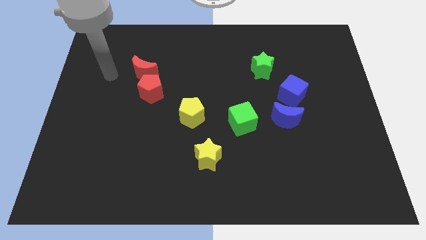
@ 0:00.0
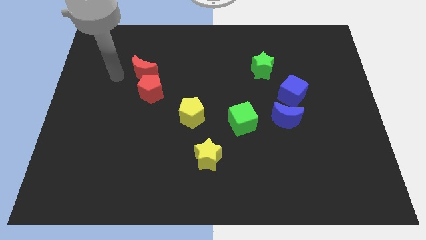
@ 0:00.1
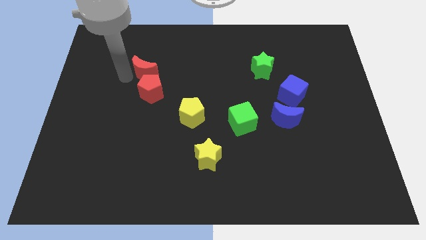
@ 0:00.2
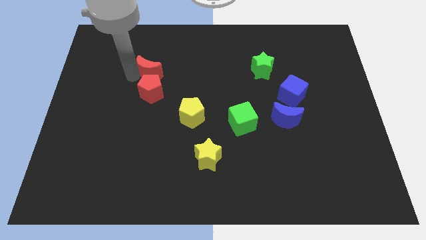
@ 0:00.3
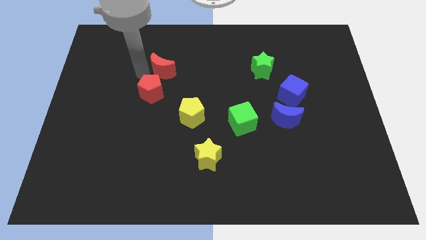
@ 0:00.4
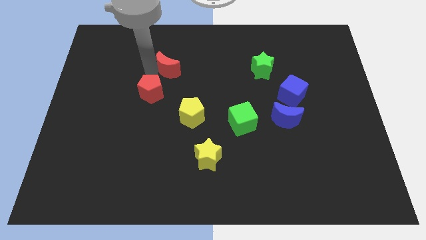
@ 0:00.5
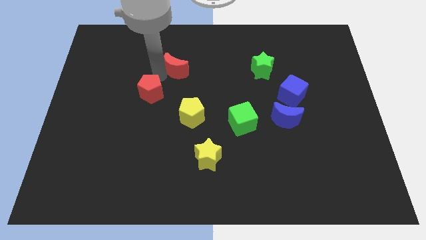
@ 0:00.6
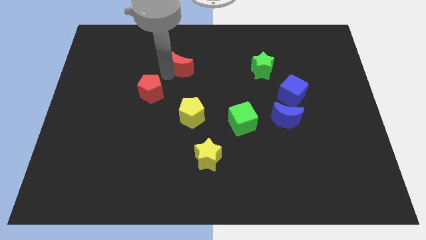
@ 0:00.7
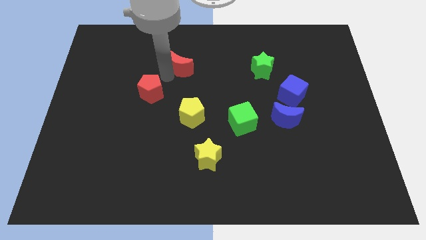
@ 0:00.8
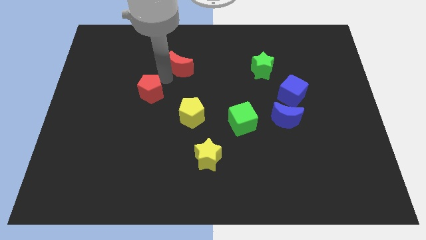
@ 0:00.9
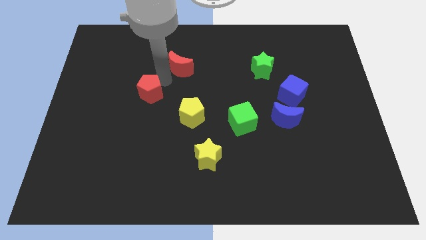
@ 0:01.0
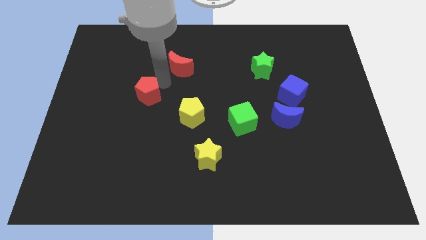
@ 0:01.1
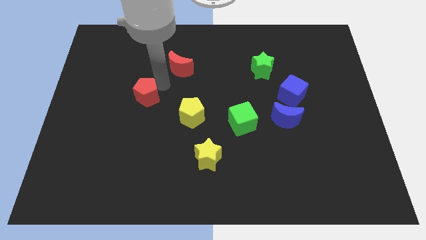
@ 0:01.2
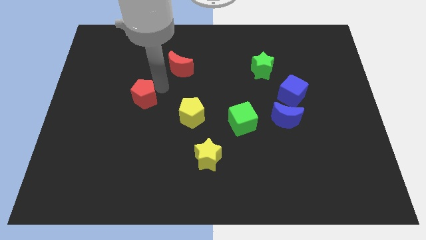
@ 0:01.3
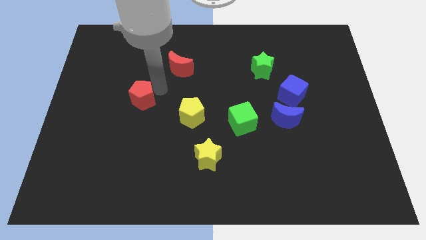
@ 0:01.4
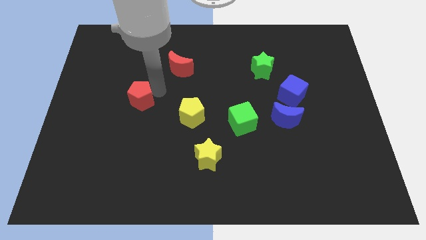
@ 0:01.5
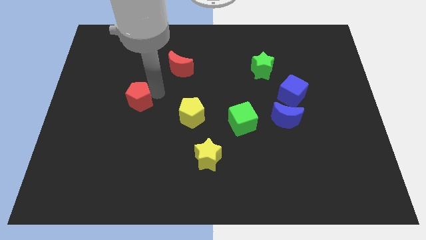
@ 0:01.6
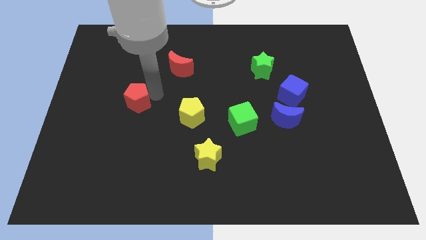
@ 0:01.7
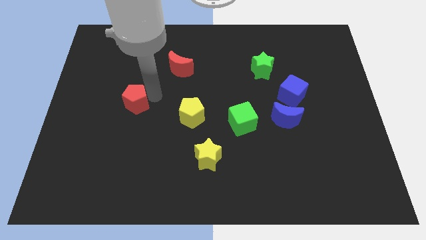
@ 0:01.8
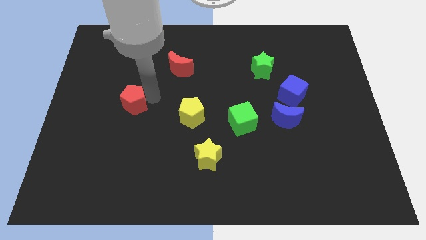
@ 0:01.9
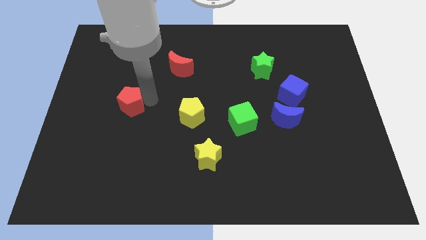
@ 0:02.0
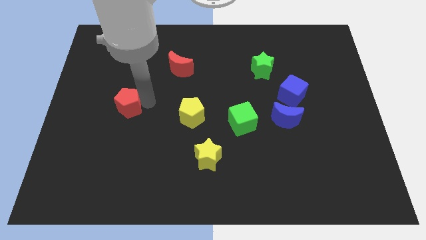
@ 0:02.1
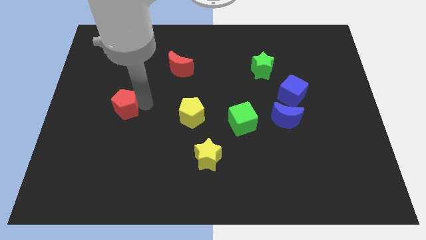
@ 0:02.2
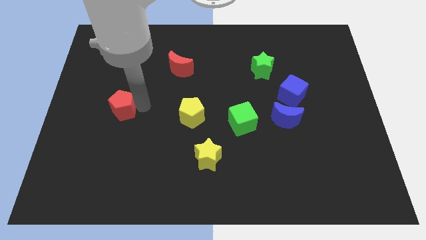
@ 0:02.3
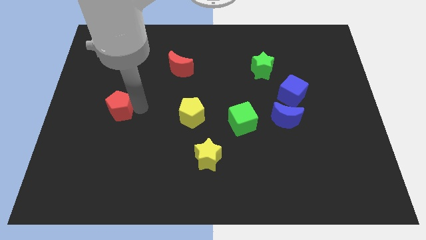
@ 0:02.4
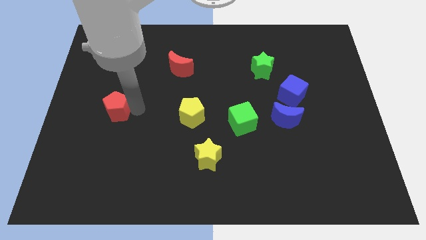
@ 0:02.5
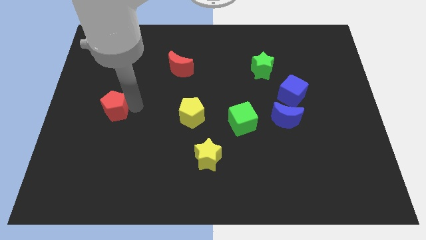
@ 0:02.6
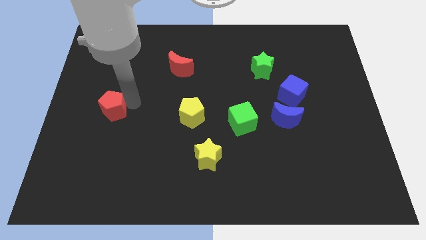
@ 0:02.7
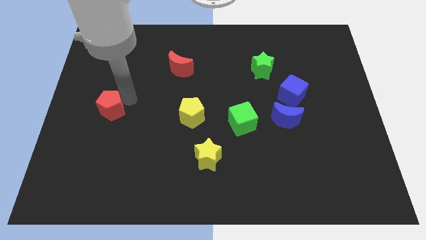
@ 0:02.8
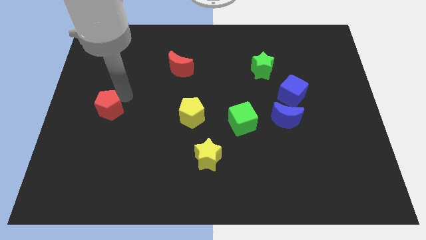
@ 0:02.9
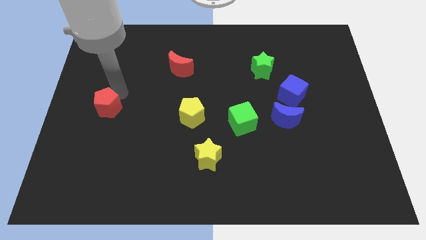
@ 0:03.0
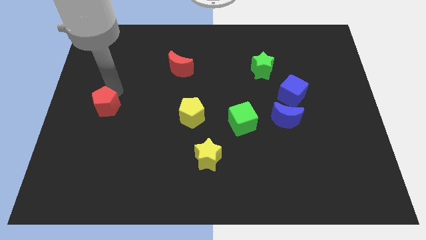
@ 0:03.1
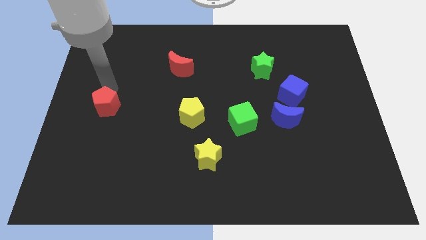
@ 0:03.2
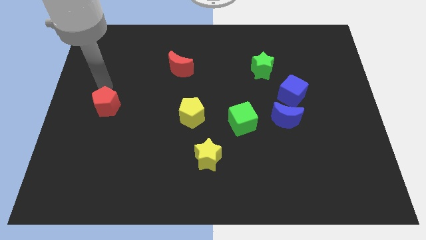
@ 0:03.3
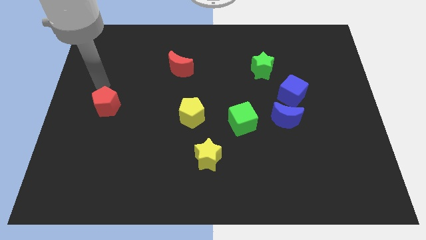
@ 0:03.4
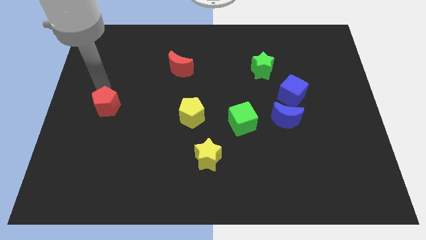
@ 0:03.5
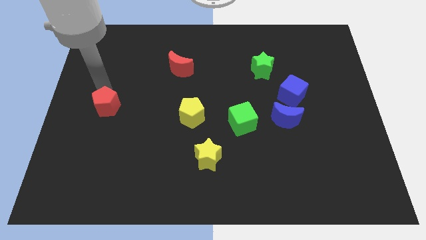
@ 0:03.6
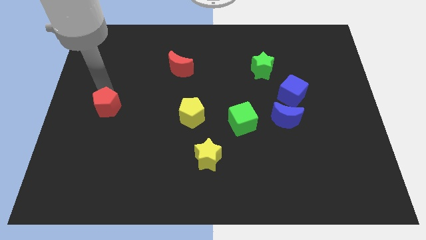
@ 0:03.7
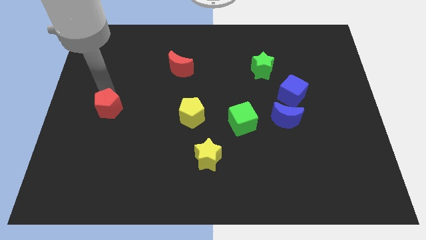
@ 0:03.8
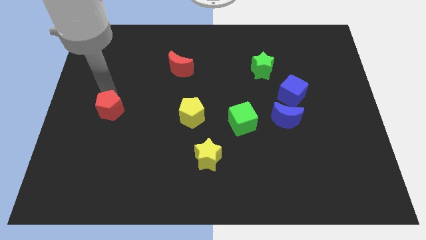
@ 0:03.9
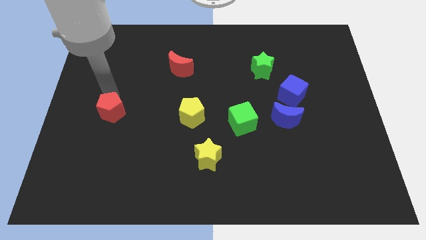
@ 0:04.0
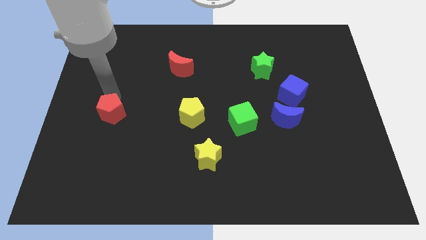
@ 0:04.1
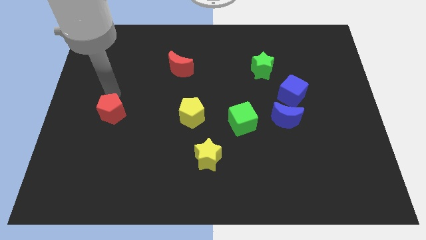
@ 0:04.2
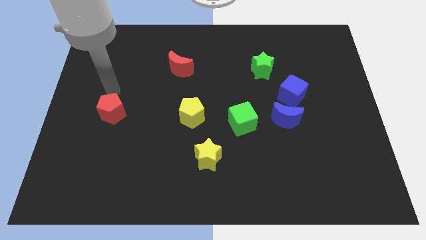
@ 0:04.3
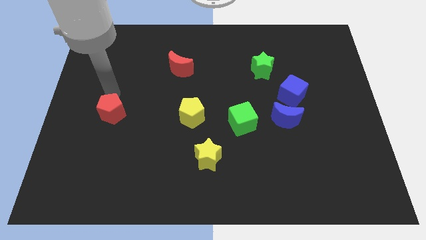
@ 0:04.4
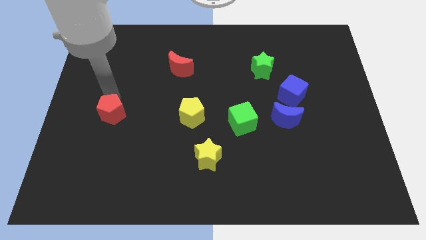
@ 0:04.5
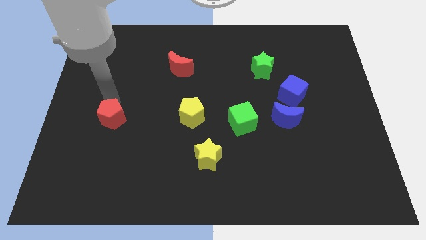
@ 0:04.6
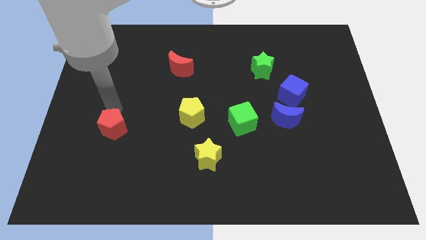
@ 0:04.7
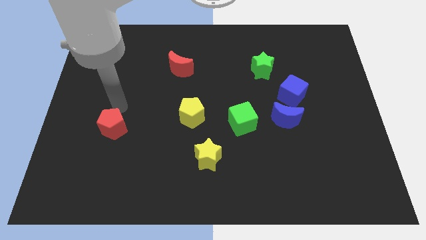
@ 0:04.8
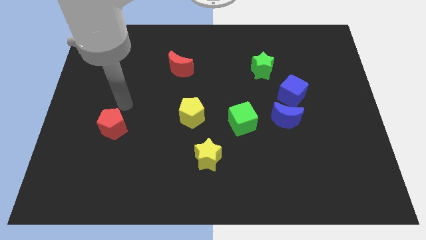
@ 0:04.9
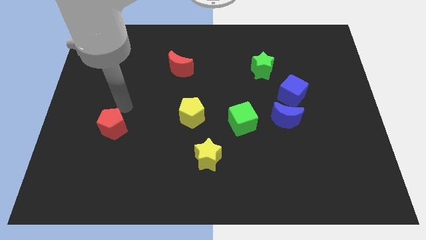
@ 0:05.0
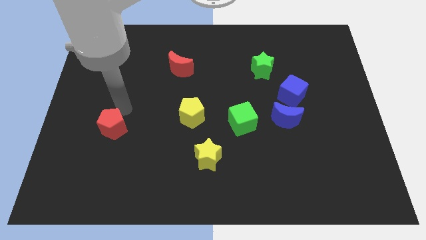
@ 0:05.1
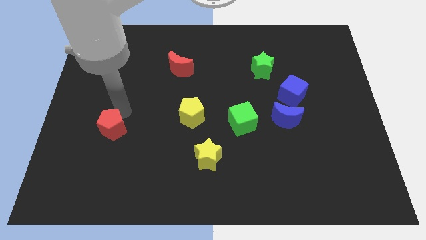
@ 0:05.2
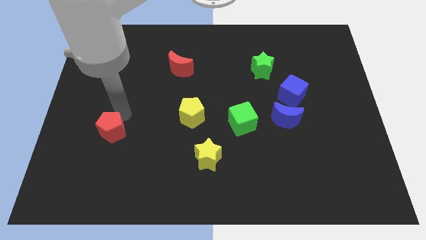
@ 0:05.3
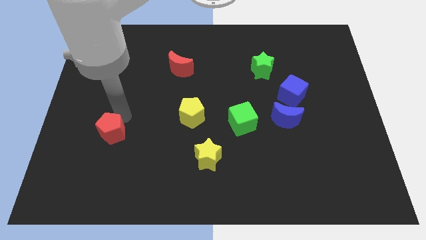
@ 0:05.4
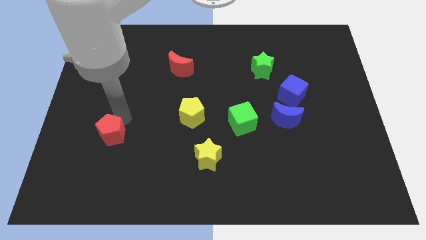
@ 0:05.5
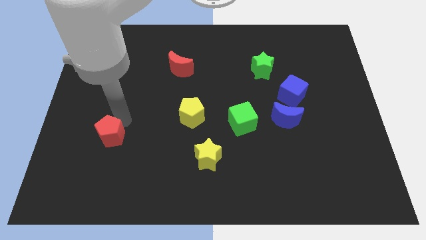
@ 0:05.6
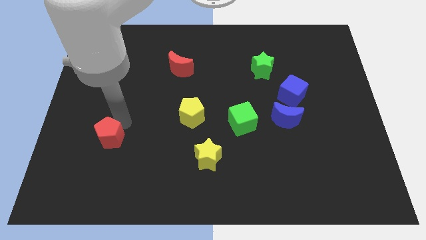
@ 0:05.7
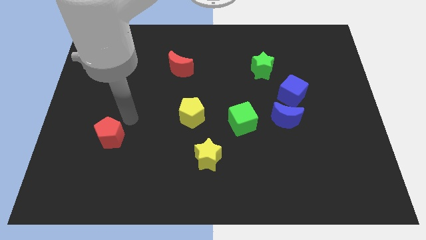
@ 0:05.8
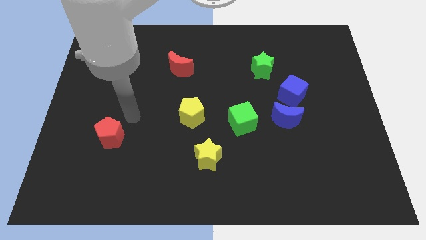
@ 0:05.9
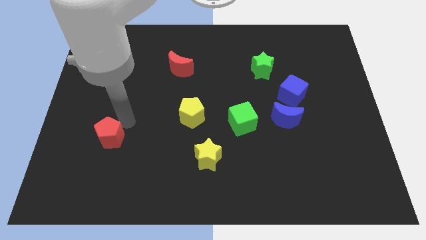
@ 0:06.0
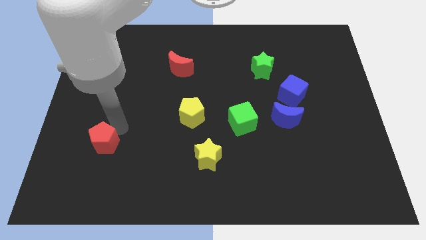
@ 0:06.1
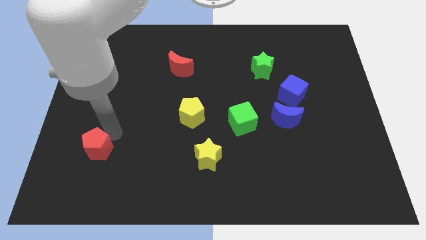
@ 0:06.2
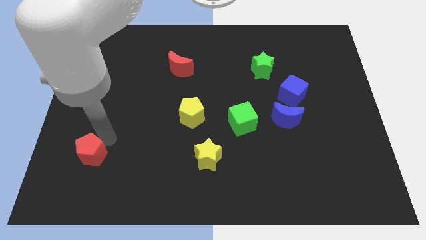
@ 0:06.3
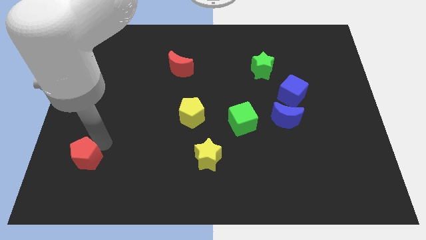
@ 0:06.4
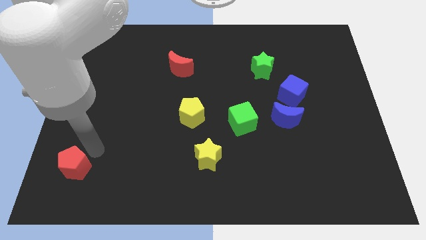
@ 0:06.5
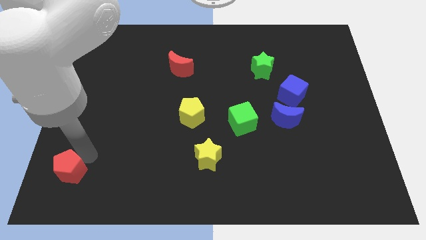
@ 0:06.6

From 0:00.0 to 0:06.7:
move the red pentagon to the bottom left of the board
